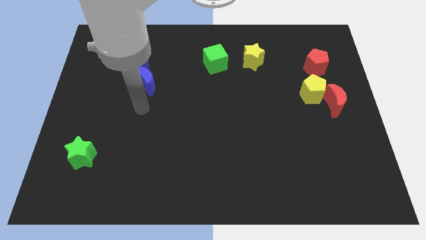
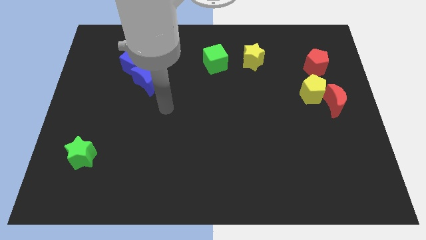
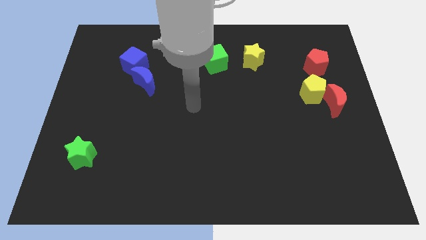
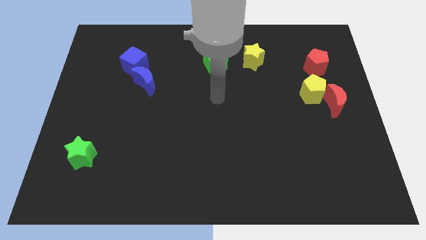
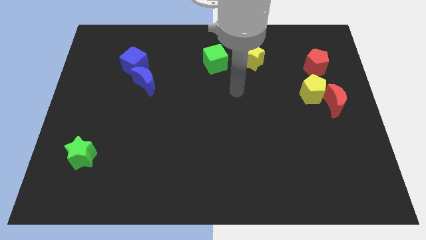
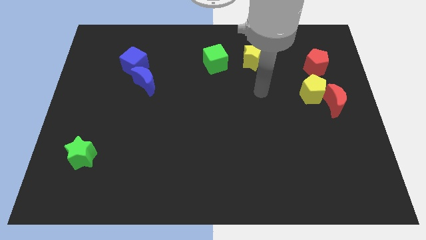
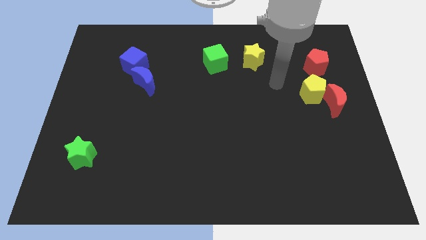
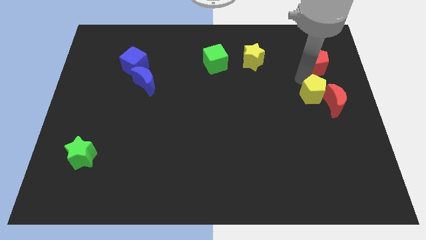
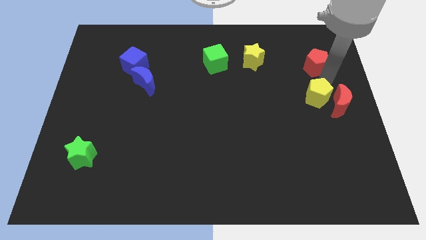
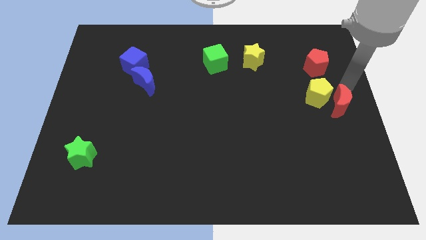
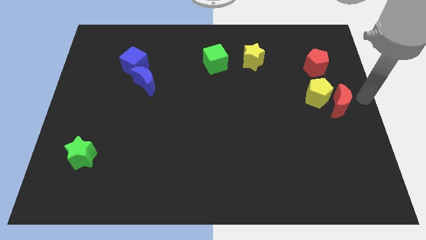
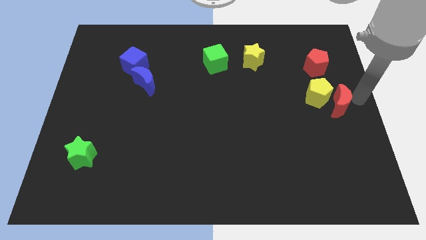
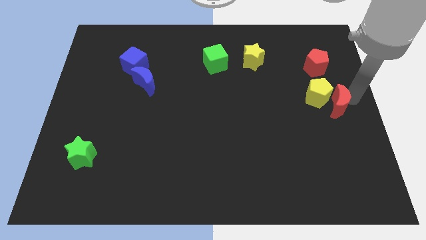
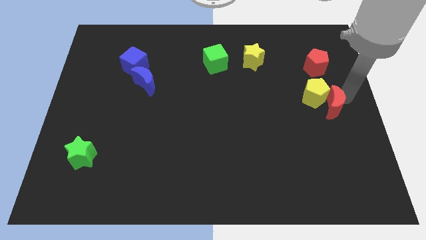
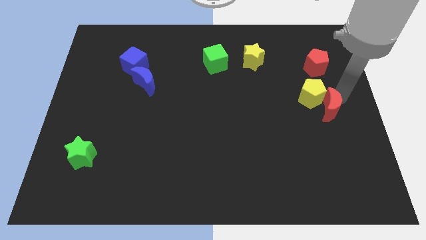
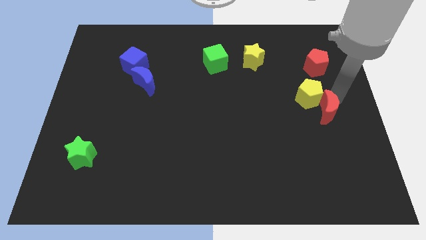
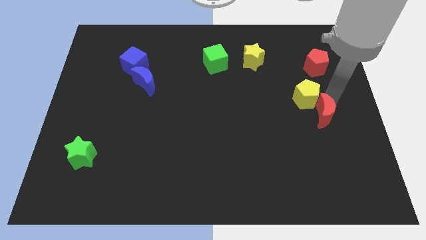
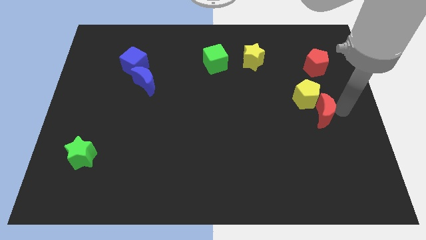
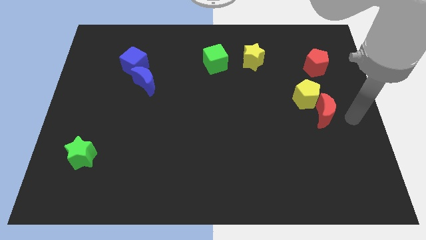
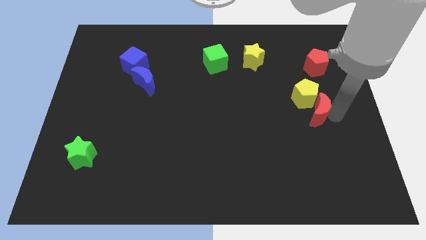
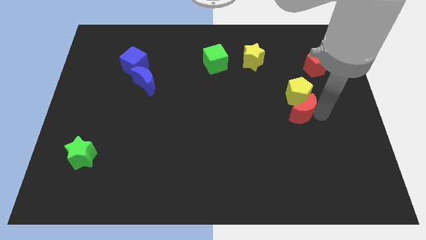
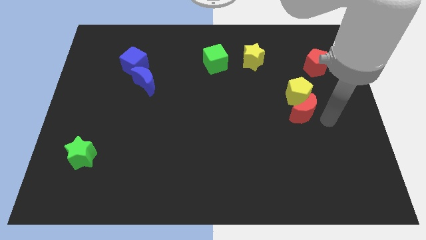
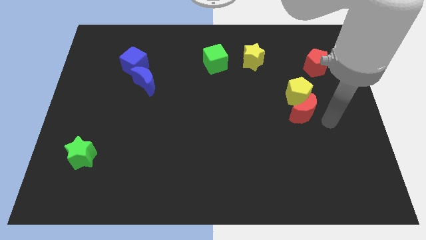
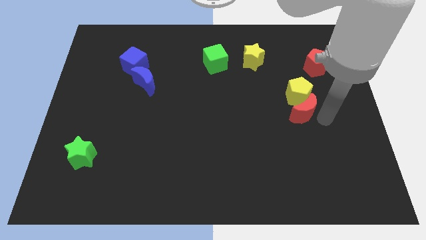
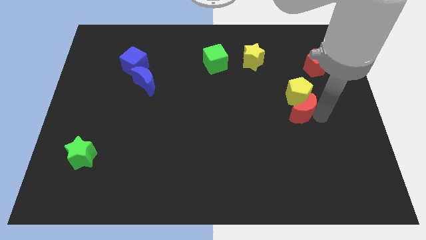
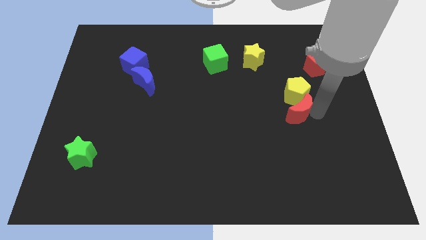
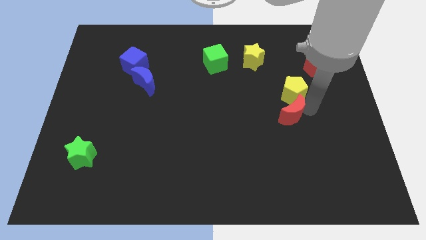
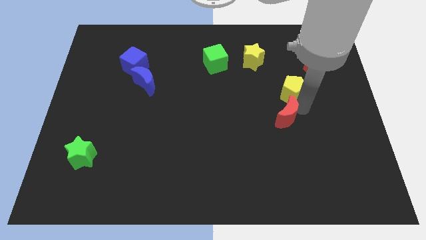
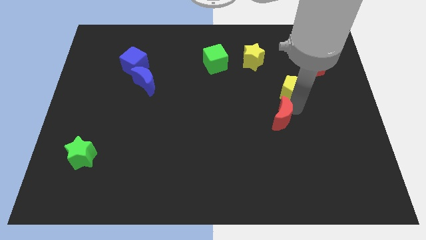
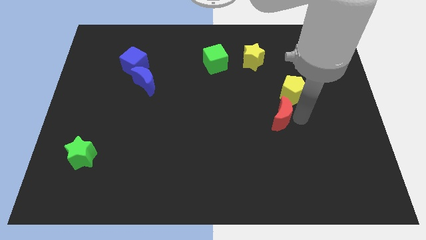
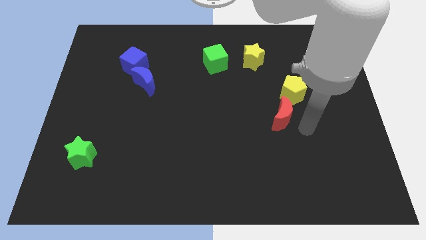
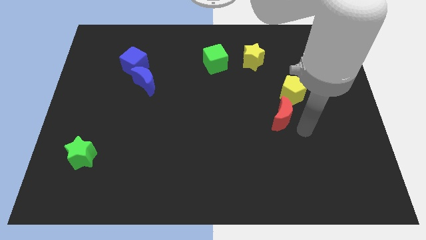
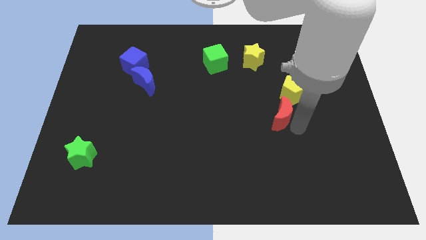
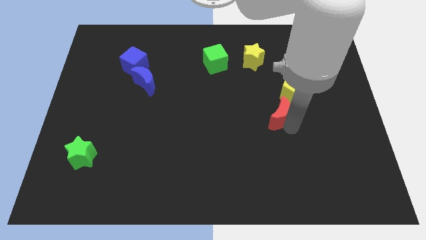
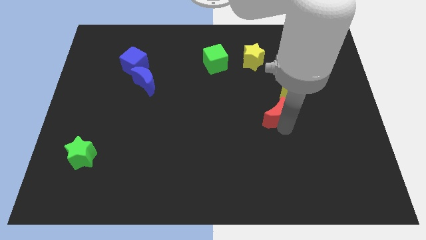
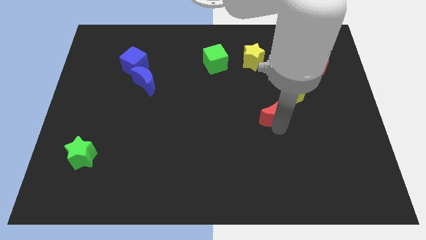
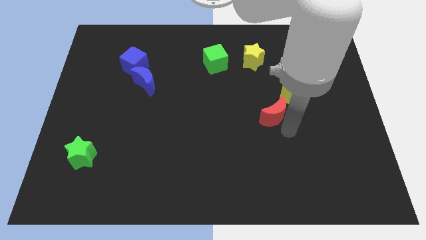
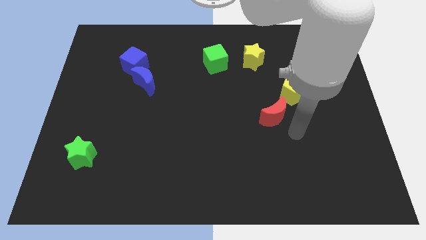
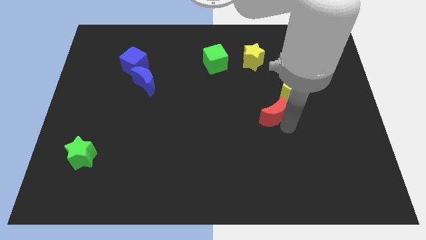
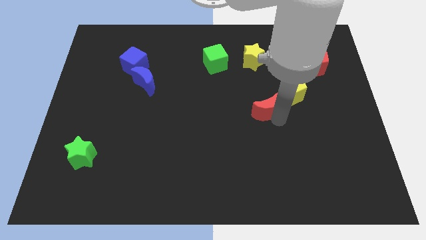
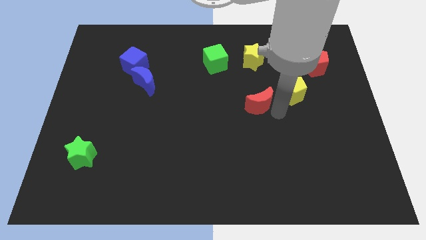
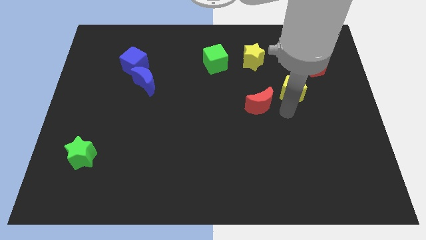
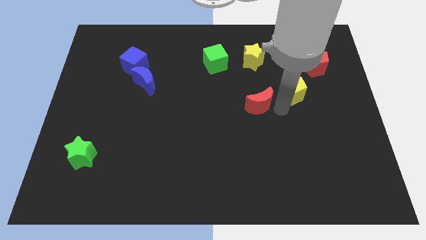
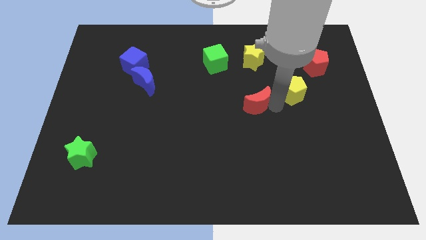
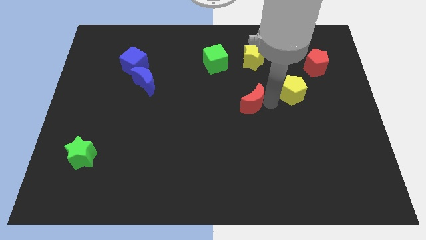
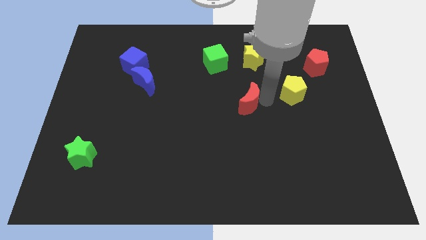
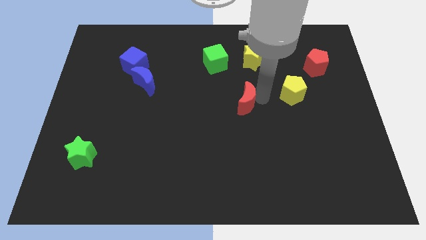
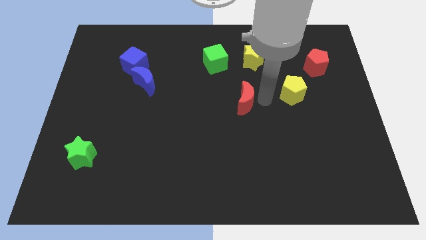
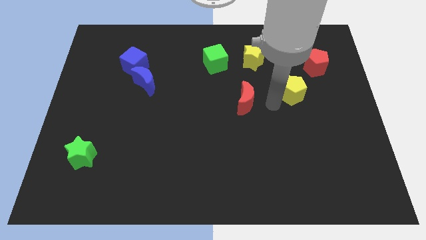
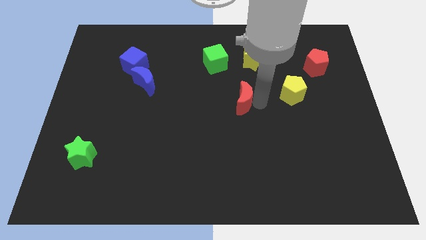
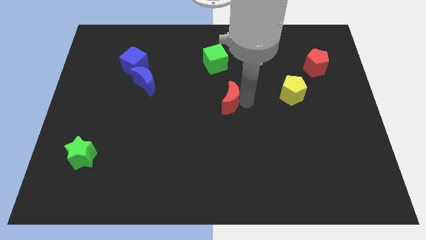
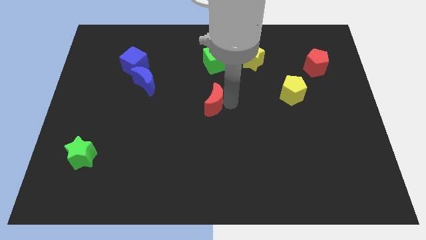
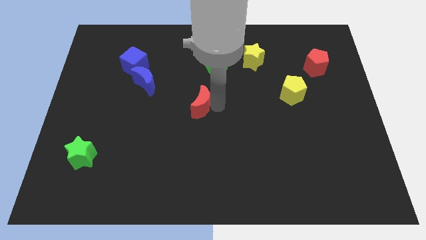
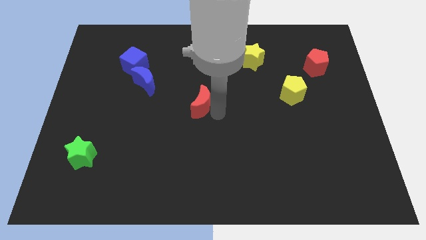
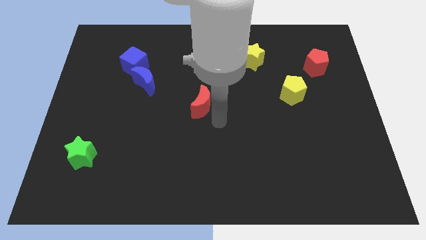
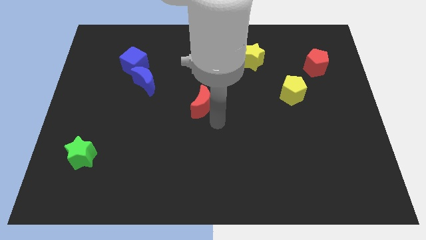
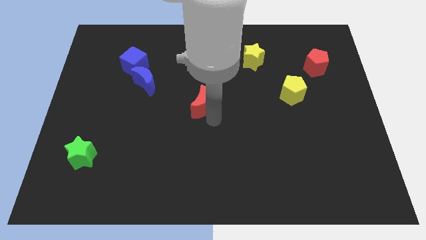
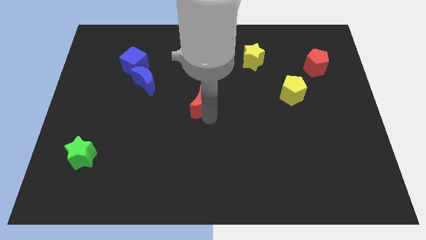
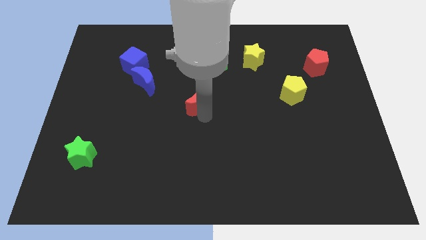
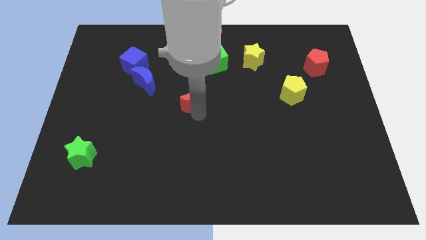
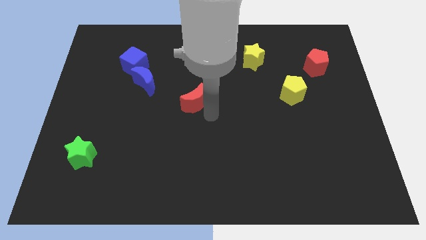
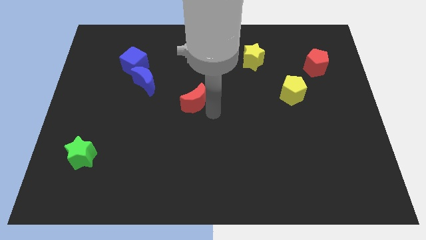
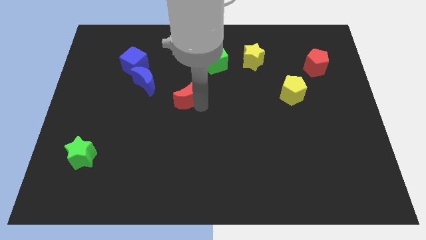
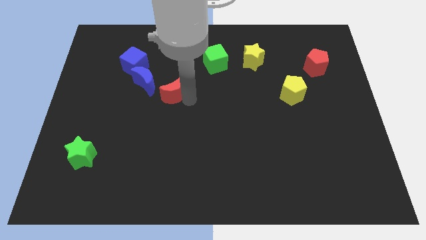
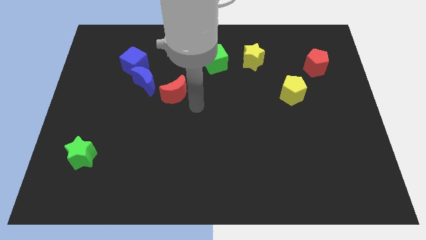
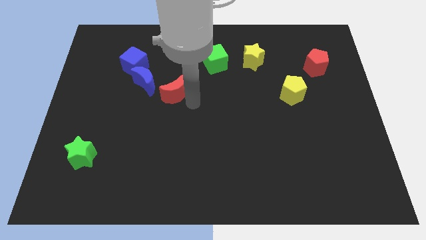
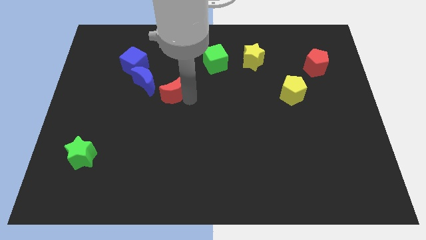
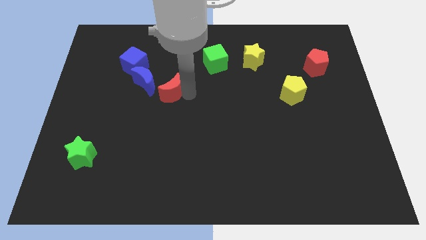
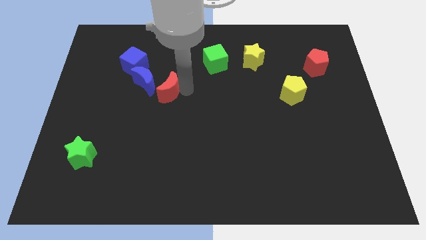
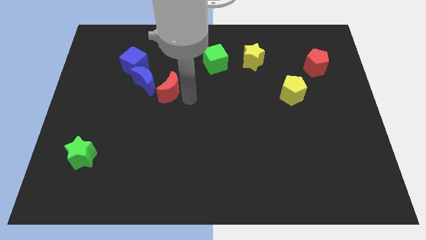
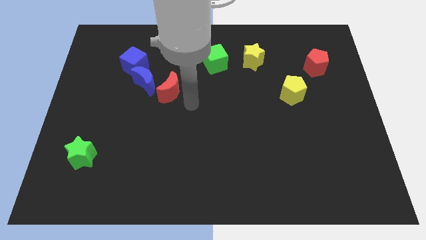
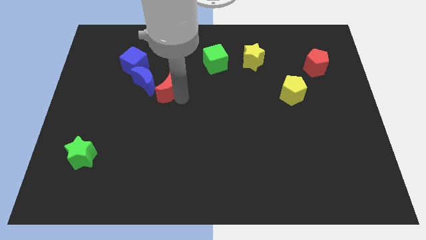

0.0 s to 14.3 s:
move the red moon to the bottom right side of the blue cube

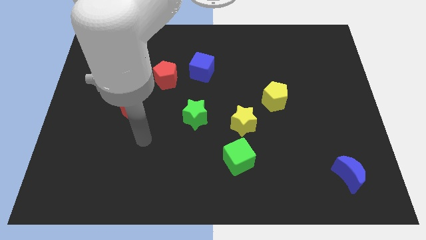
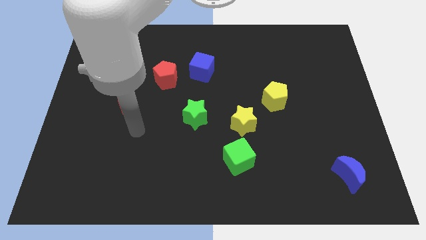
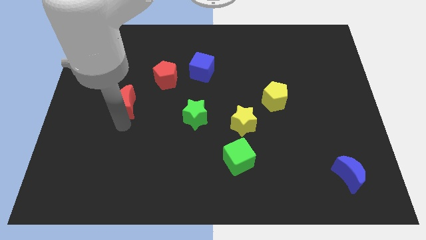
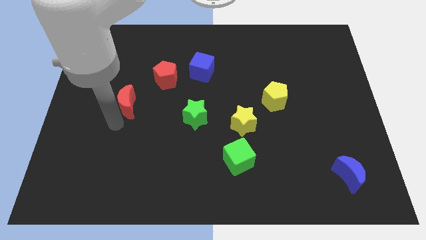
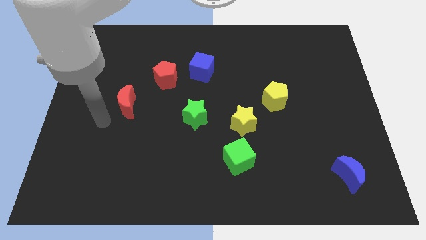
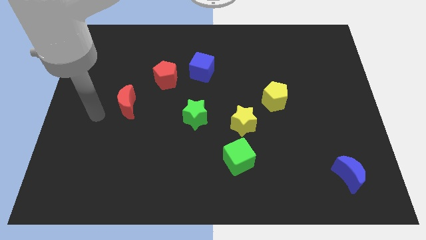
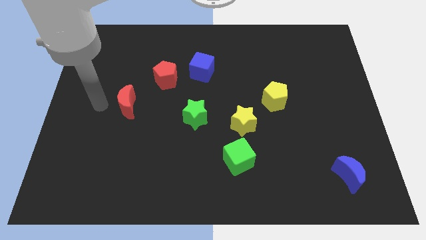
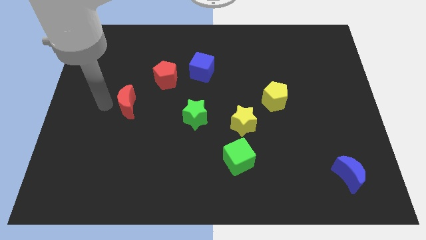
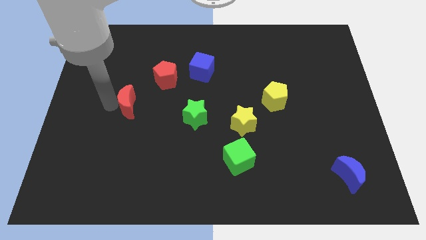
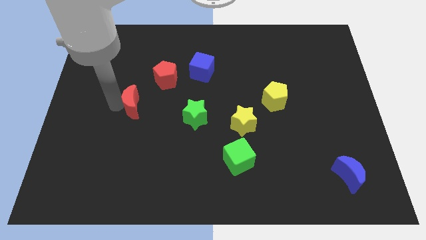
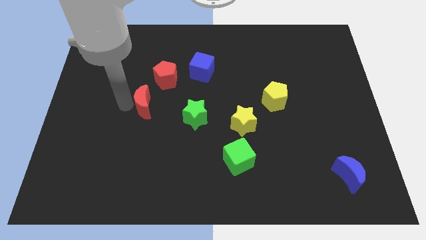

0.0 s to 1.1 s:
slide the red moon to the bottom side of the red pentagon
